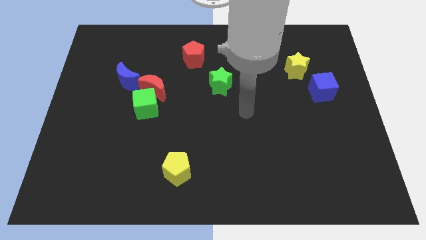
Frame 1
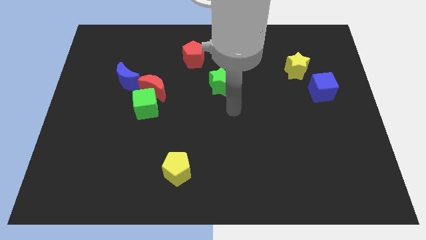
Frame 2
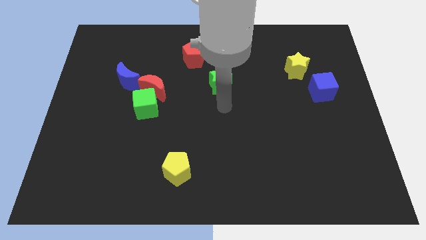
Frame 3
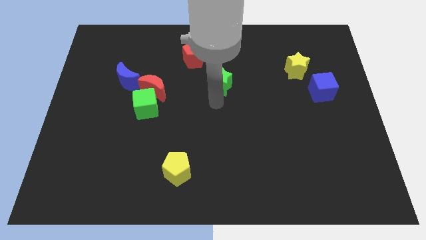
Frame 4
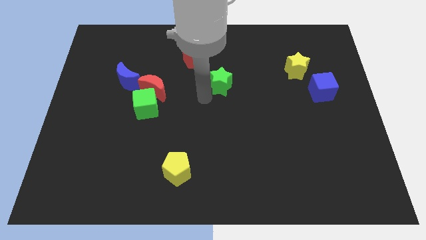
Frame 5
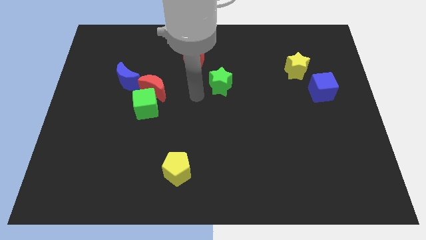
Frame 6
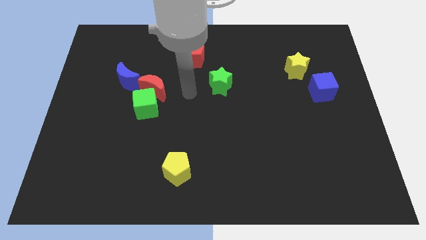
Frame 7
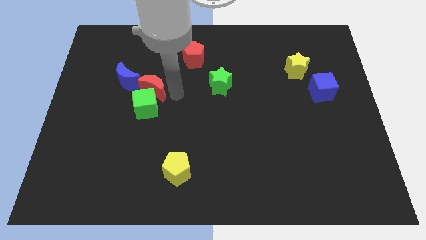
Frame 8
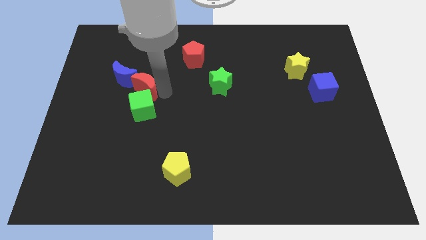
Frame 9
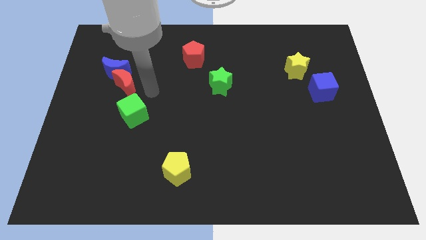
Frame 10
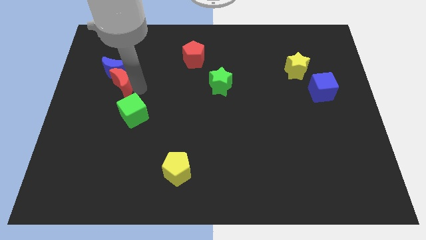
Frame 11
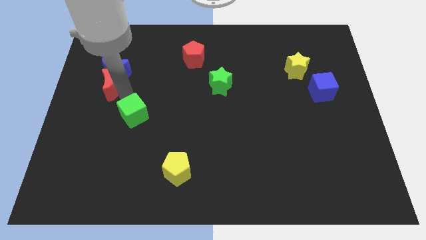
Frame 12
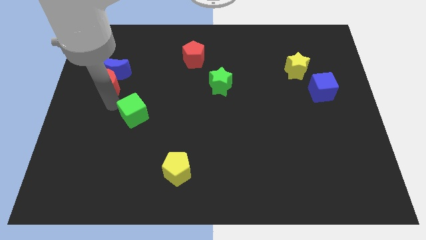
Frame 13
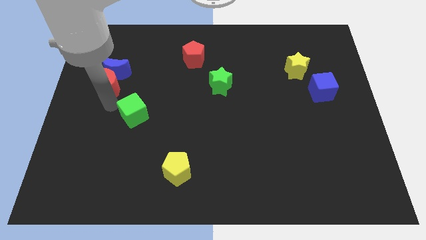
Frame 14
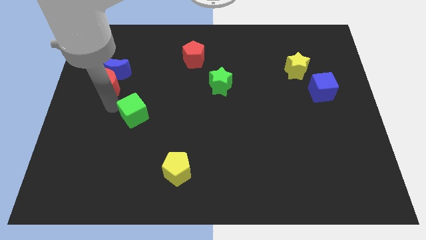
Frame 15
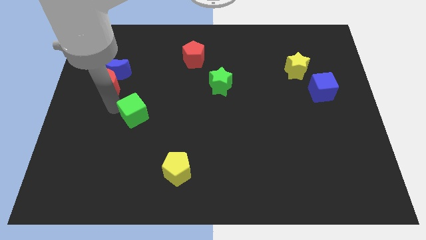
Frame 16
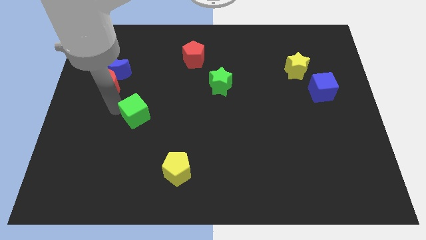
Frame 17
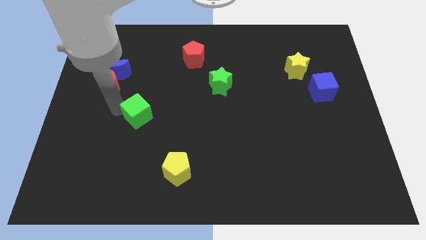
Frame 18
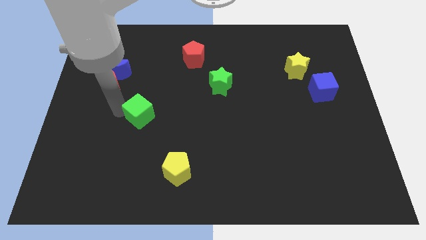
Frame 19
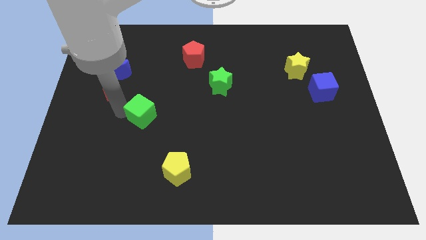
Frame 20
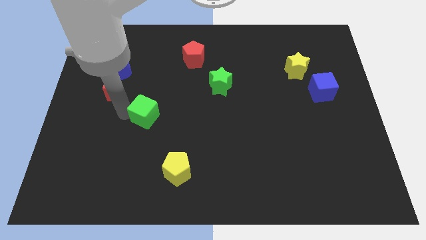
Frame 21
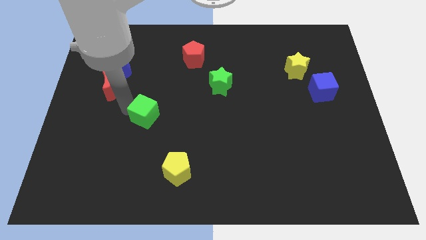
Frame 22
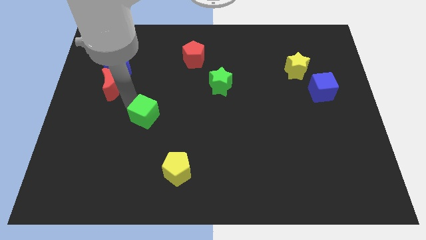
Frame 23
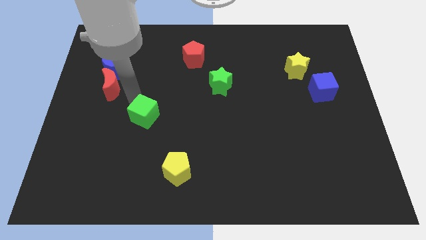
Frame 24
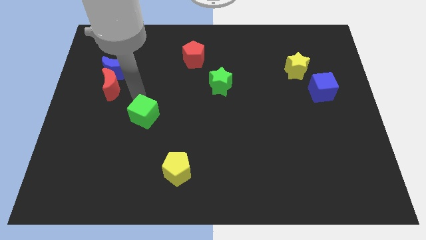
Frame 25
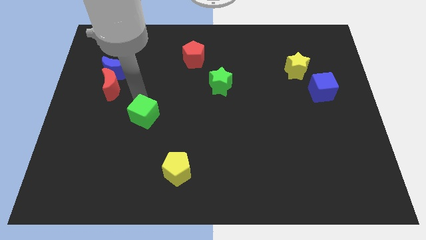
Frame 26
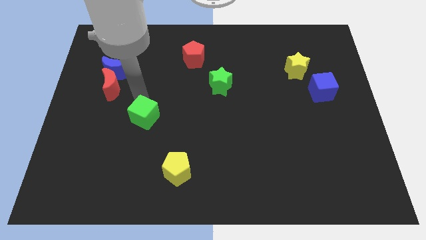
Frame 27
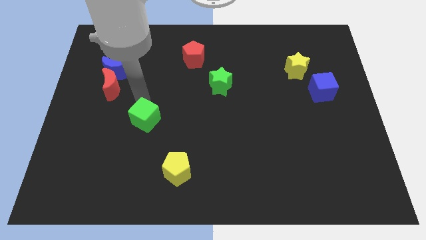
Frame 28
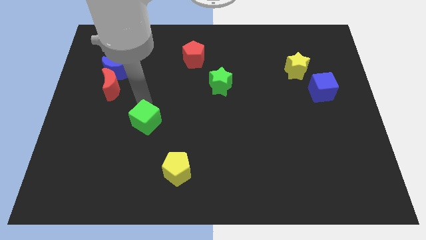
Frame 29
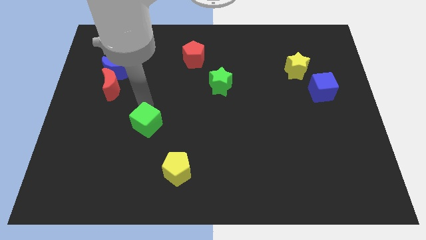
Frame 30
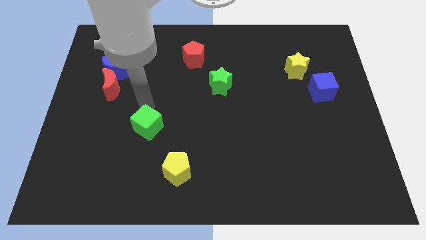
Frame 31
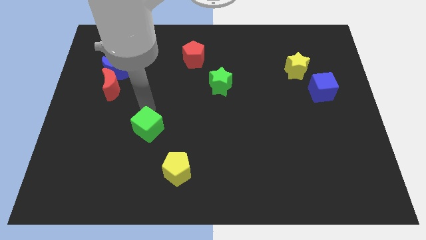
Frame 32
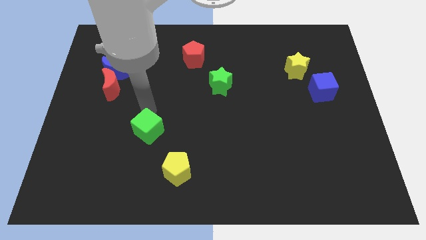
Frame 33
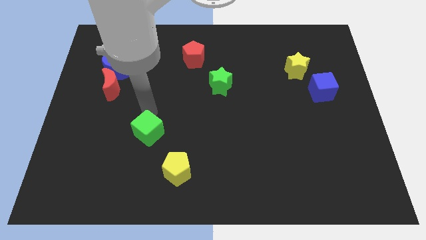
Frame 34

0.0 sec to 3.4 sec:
slightly move the green cube down

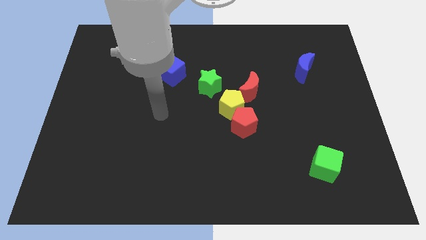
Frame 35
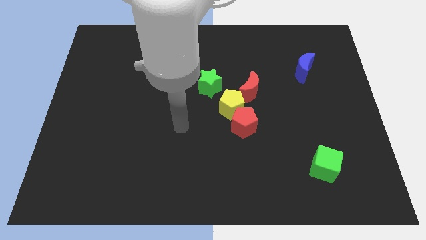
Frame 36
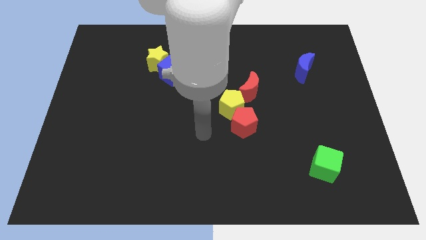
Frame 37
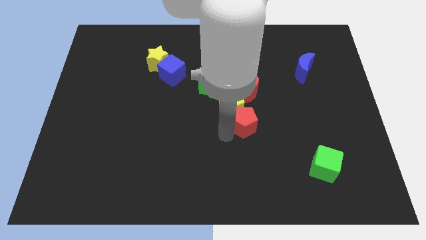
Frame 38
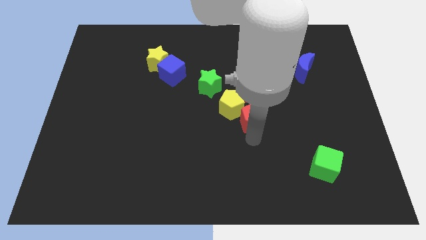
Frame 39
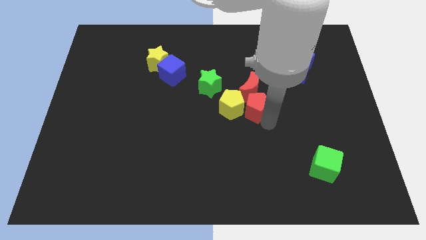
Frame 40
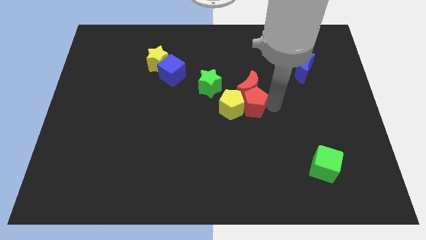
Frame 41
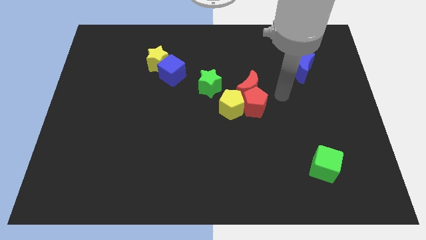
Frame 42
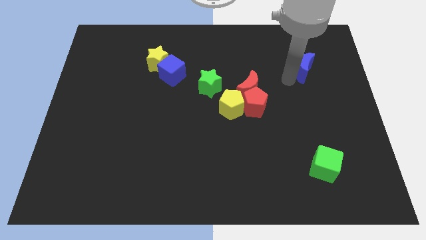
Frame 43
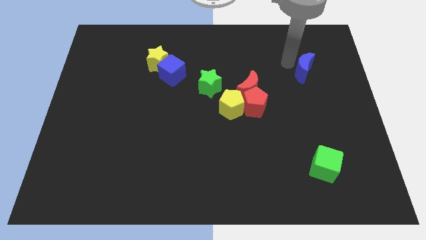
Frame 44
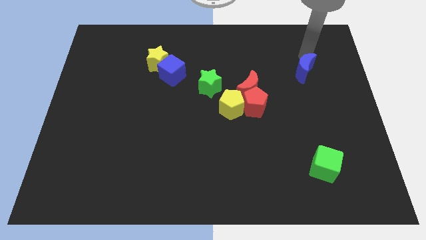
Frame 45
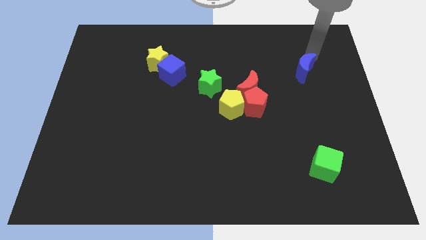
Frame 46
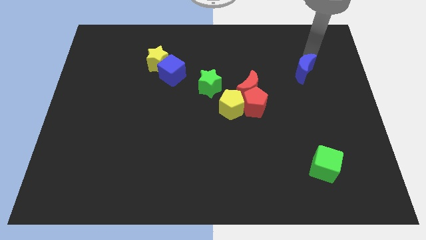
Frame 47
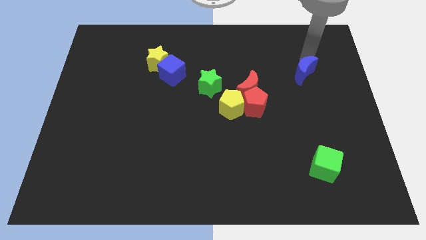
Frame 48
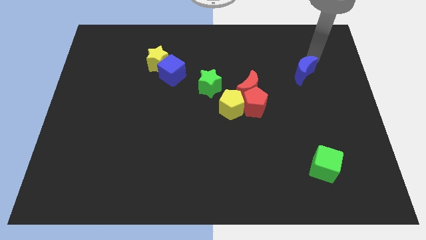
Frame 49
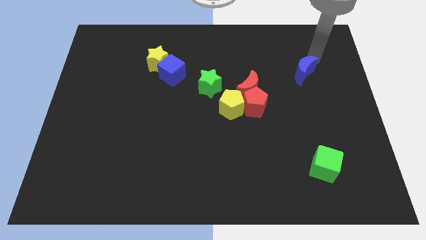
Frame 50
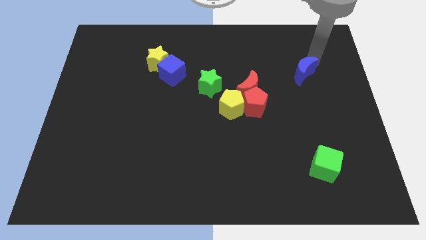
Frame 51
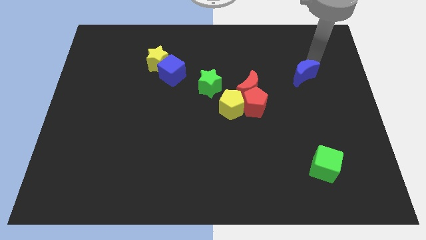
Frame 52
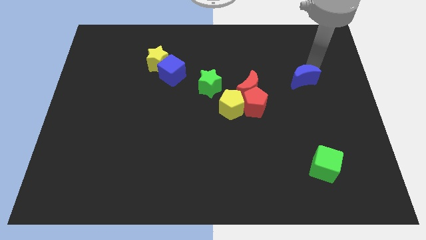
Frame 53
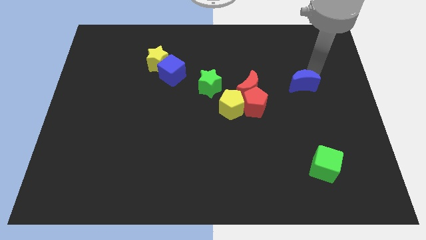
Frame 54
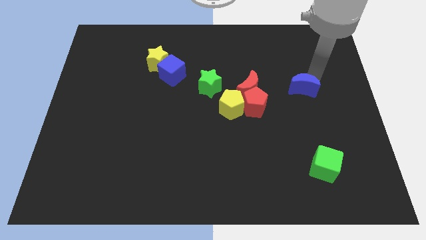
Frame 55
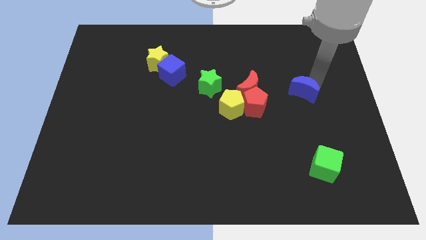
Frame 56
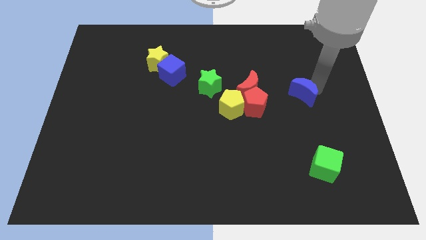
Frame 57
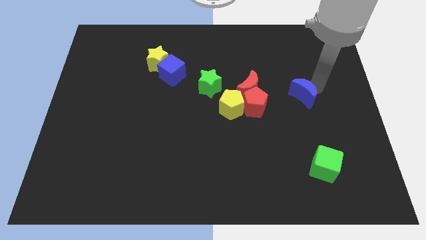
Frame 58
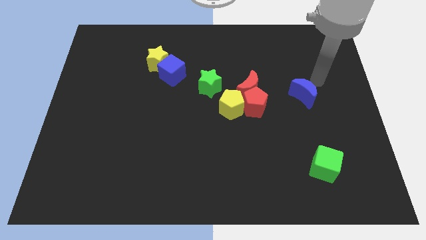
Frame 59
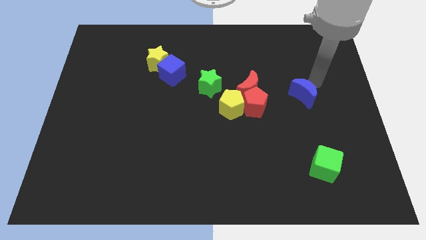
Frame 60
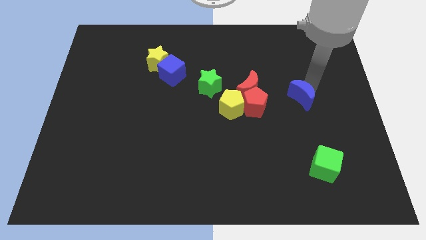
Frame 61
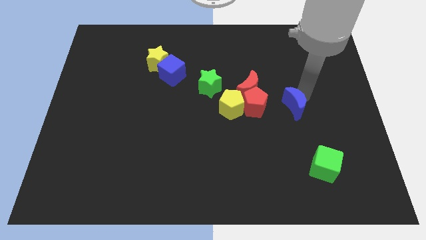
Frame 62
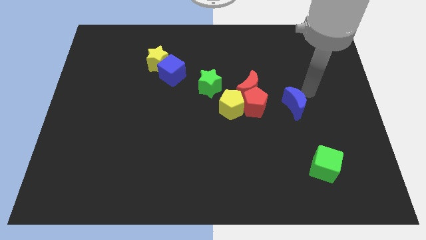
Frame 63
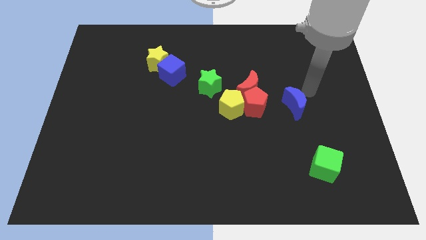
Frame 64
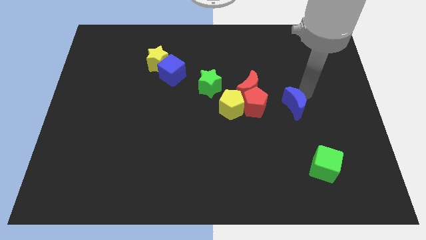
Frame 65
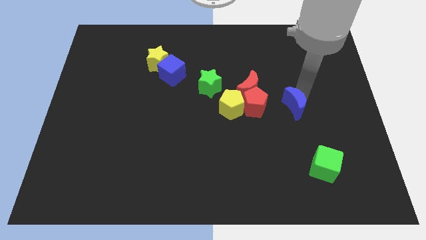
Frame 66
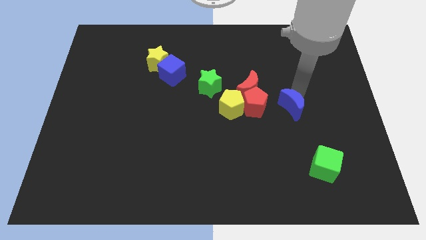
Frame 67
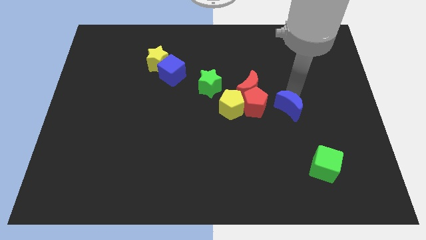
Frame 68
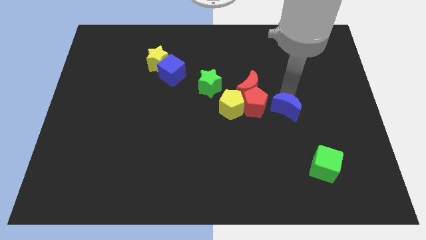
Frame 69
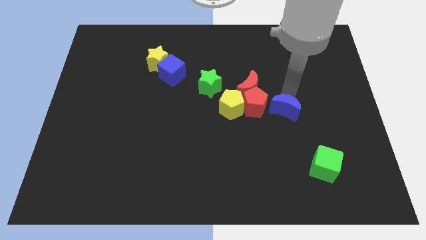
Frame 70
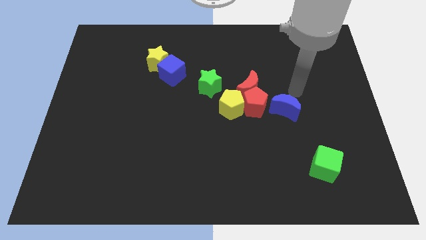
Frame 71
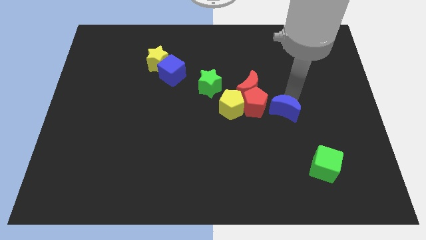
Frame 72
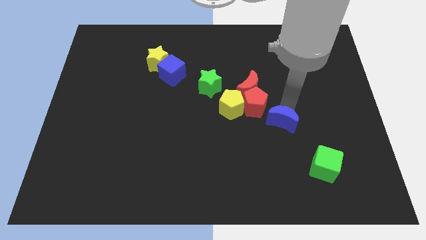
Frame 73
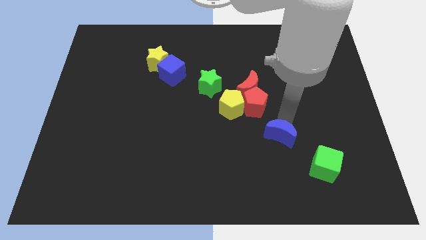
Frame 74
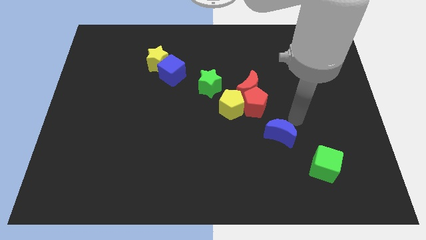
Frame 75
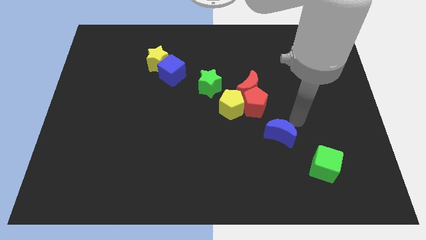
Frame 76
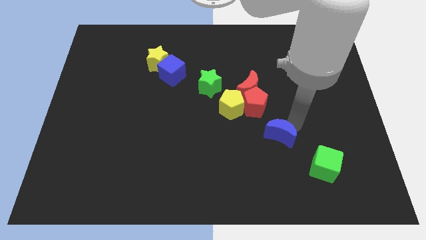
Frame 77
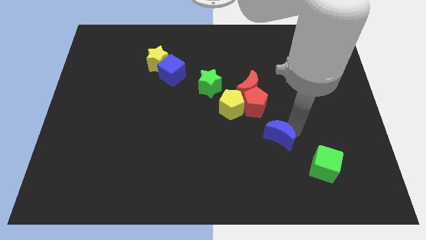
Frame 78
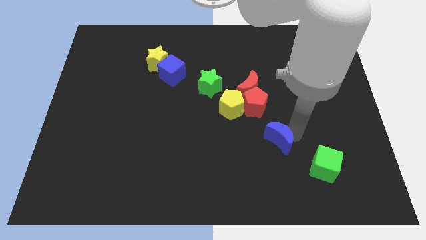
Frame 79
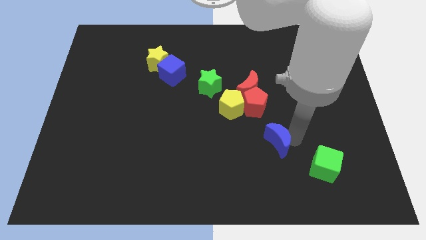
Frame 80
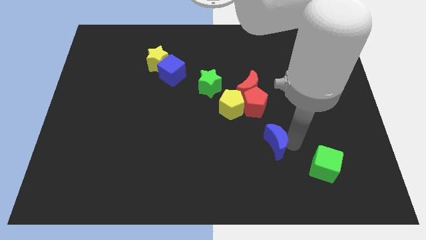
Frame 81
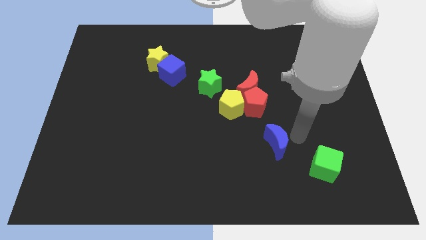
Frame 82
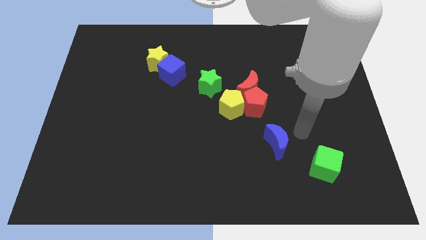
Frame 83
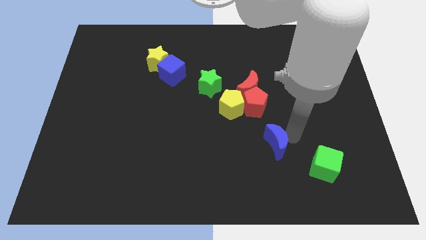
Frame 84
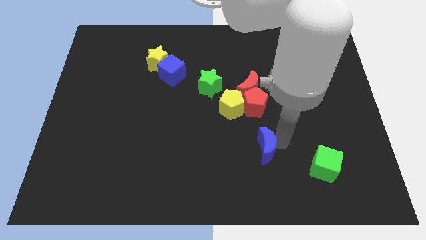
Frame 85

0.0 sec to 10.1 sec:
push the blue moon downwards and left
